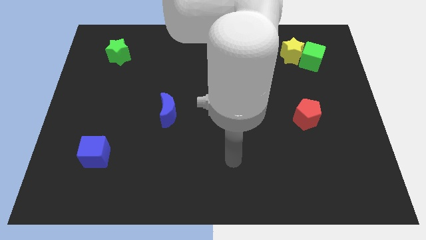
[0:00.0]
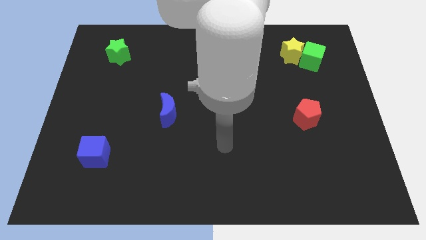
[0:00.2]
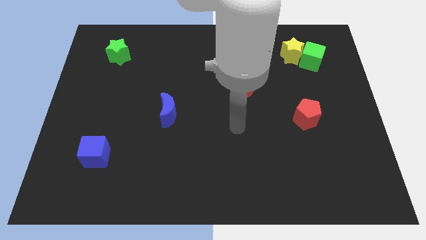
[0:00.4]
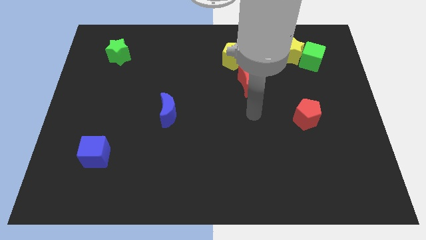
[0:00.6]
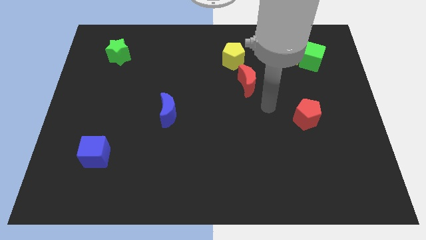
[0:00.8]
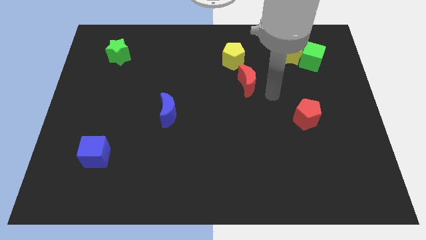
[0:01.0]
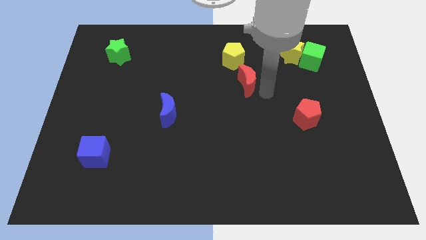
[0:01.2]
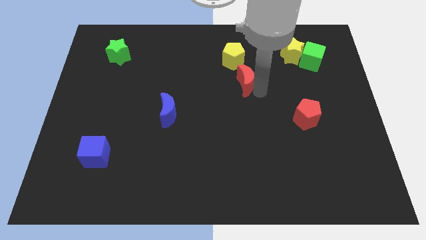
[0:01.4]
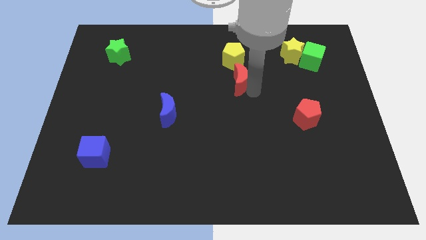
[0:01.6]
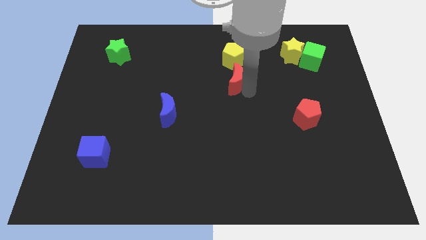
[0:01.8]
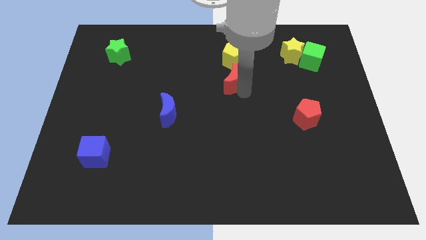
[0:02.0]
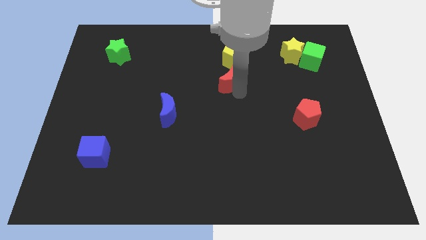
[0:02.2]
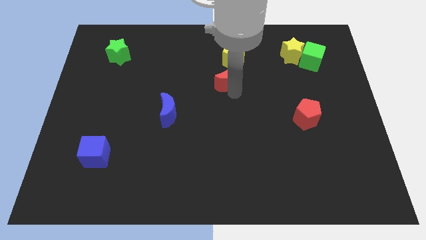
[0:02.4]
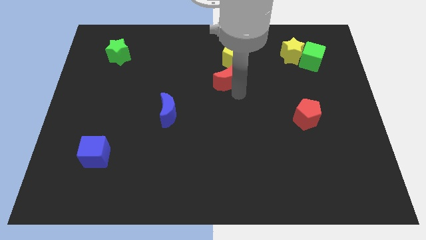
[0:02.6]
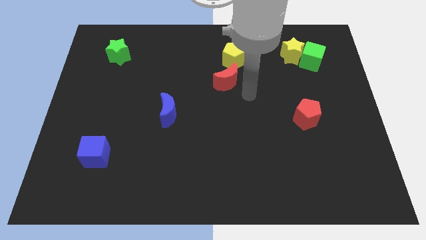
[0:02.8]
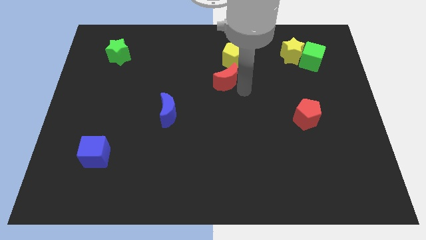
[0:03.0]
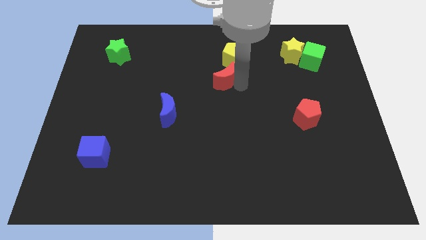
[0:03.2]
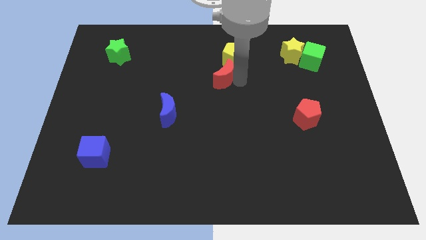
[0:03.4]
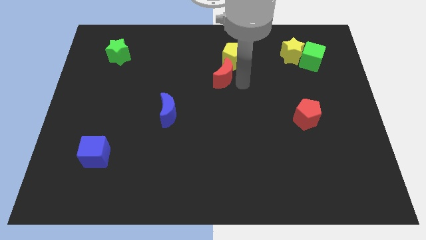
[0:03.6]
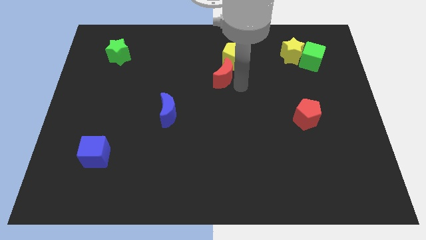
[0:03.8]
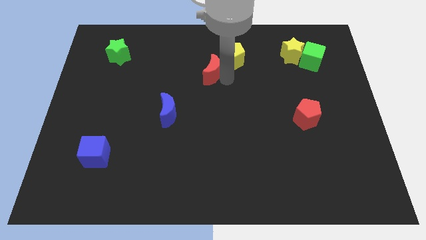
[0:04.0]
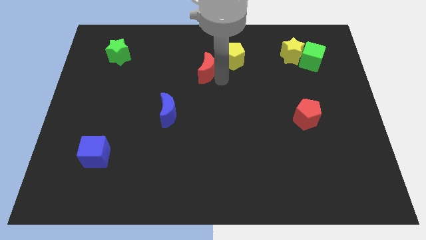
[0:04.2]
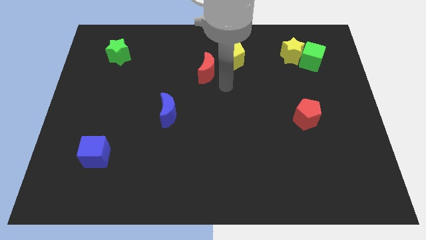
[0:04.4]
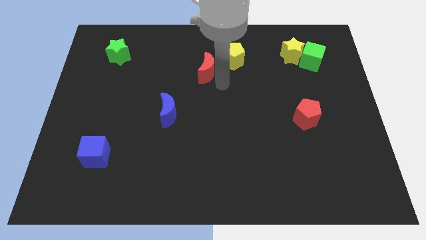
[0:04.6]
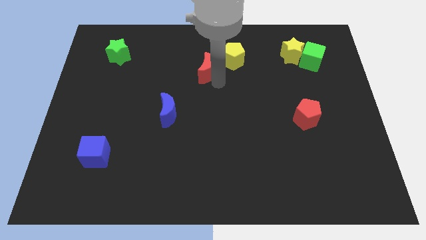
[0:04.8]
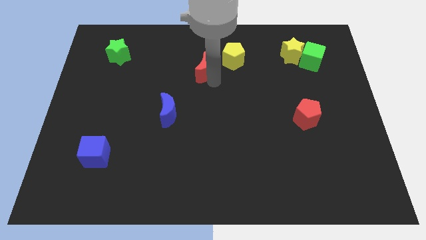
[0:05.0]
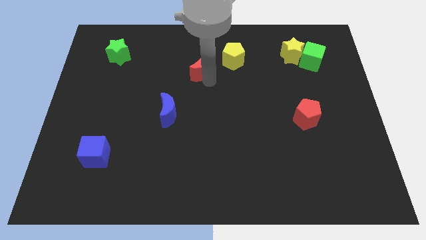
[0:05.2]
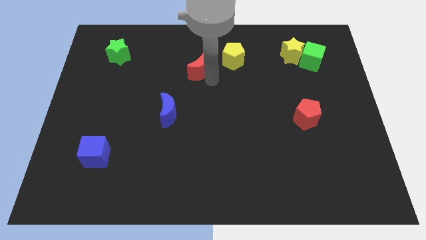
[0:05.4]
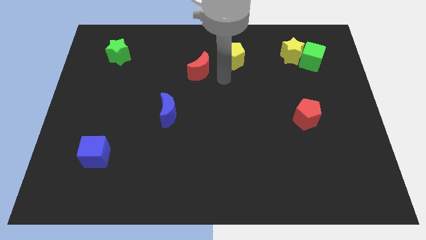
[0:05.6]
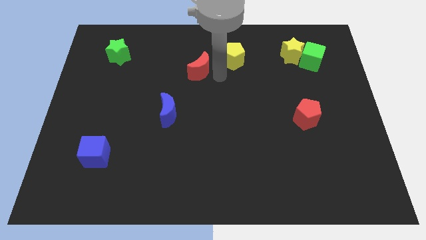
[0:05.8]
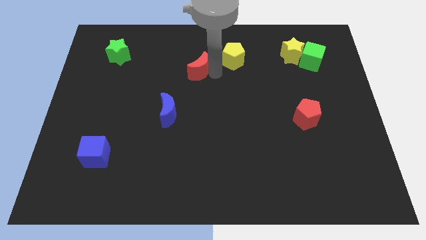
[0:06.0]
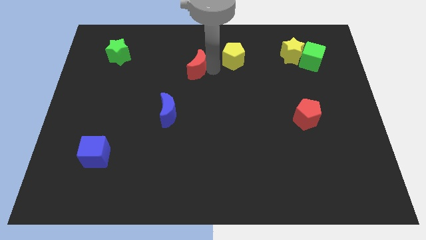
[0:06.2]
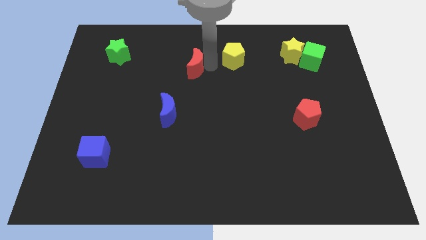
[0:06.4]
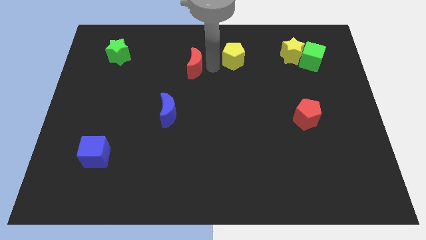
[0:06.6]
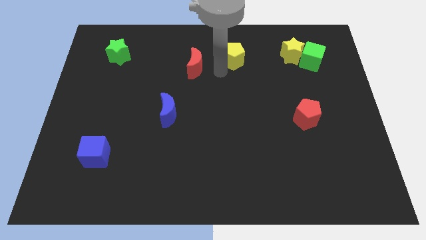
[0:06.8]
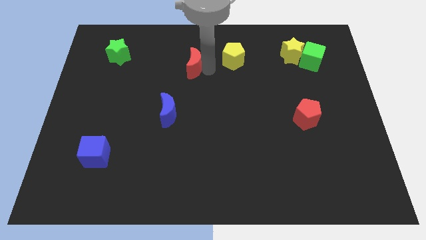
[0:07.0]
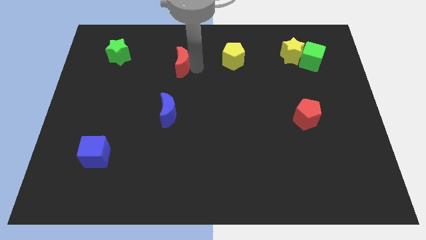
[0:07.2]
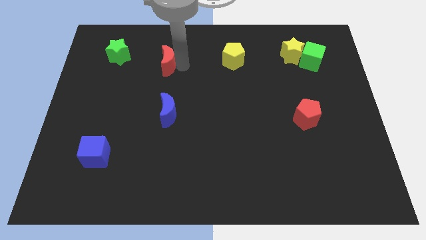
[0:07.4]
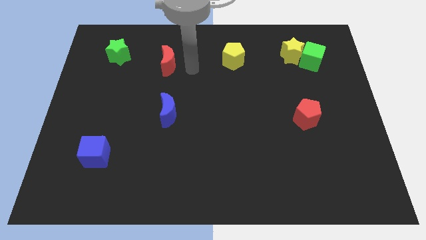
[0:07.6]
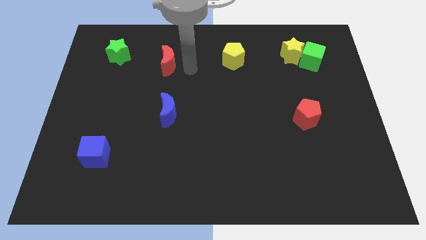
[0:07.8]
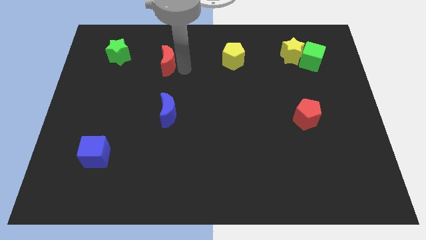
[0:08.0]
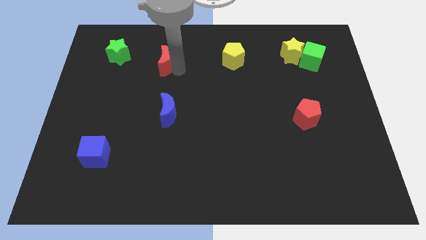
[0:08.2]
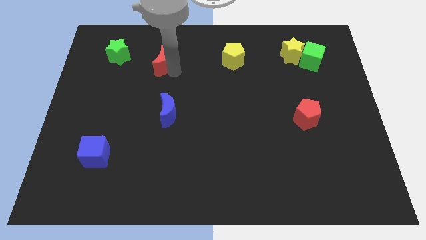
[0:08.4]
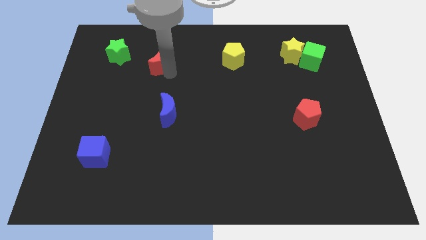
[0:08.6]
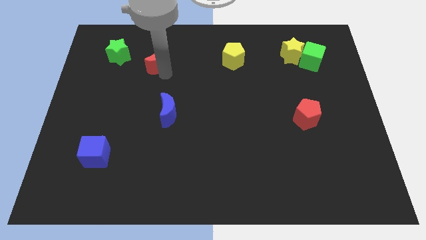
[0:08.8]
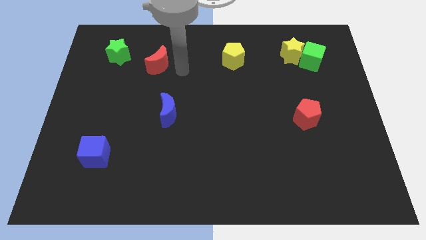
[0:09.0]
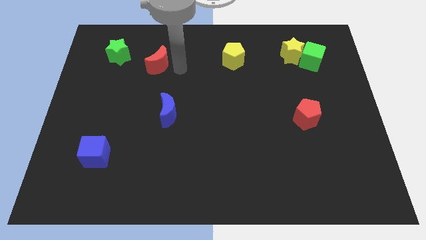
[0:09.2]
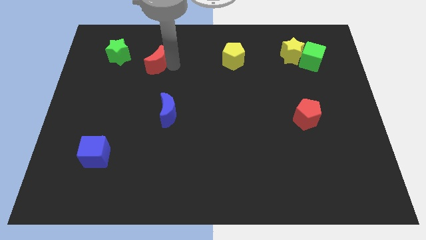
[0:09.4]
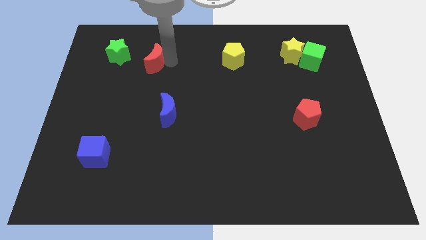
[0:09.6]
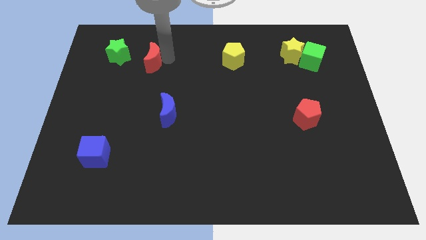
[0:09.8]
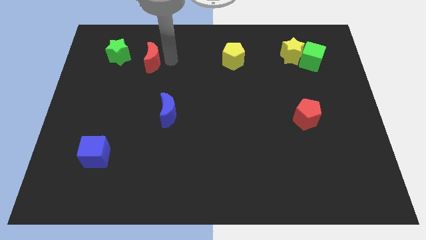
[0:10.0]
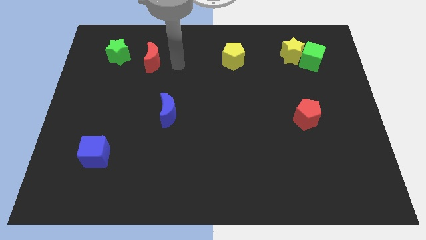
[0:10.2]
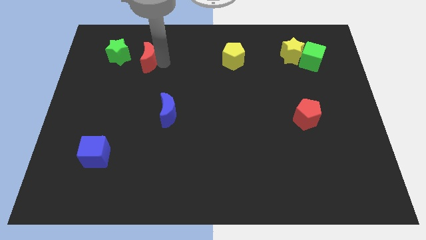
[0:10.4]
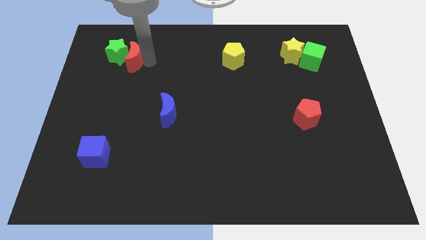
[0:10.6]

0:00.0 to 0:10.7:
slide the red moon to the green star

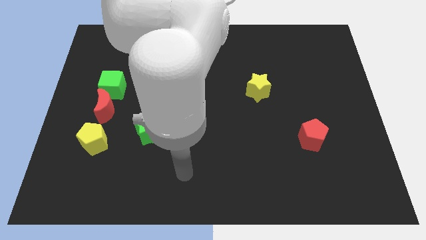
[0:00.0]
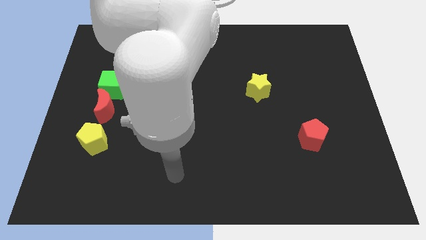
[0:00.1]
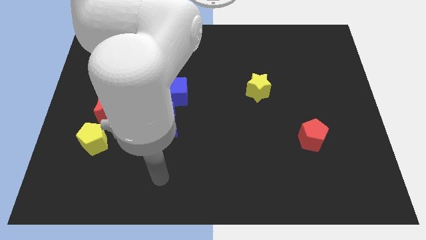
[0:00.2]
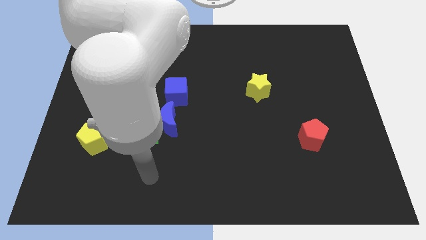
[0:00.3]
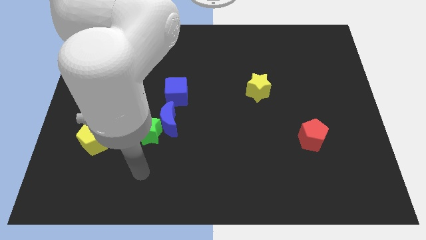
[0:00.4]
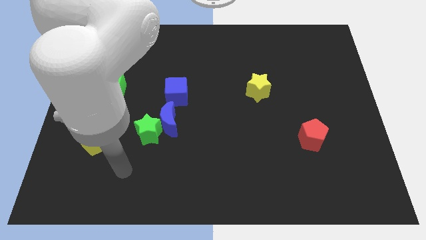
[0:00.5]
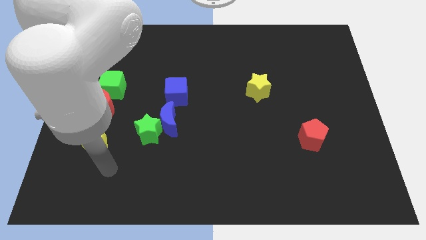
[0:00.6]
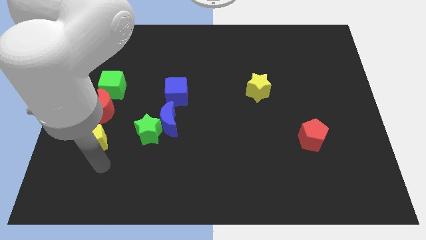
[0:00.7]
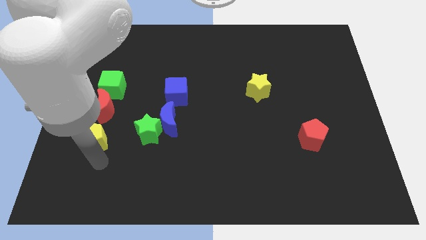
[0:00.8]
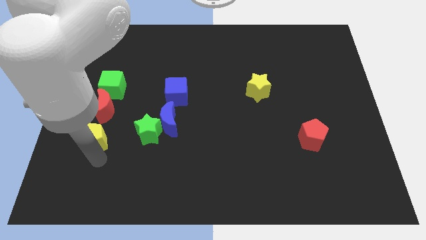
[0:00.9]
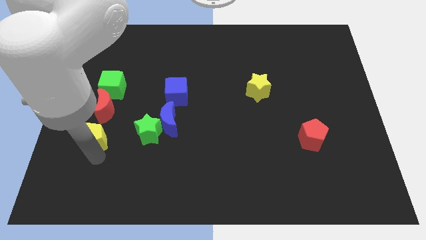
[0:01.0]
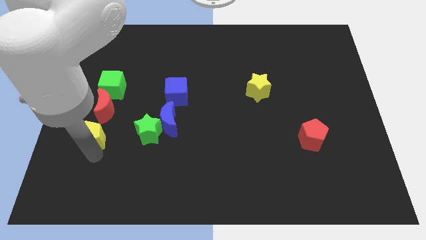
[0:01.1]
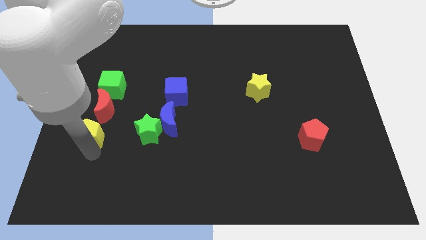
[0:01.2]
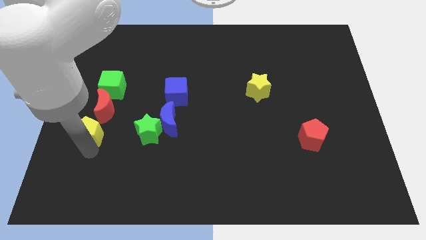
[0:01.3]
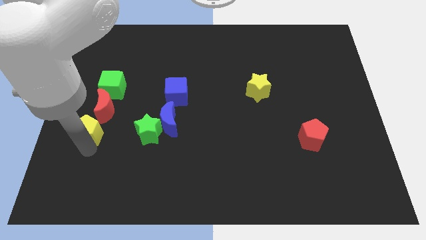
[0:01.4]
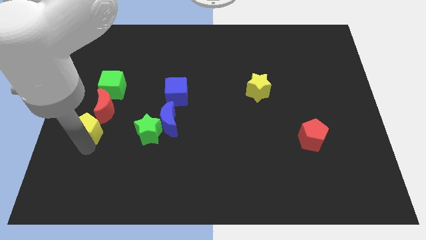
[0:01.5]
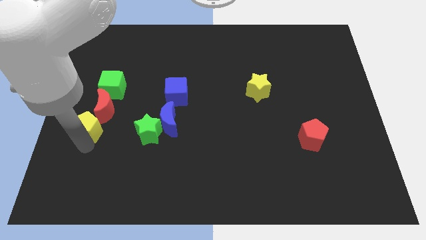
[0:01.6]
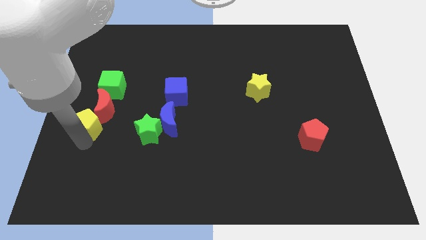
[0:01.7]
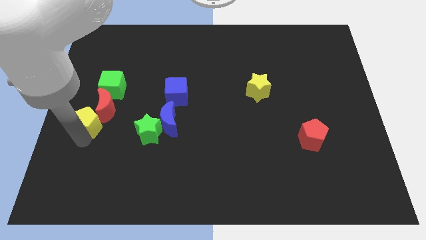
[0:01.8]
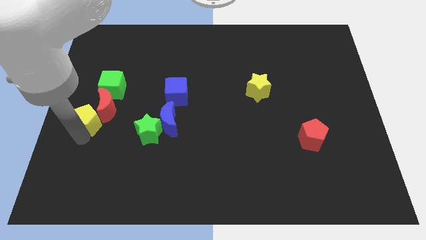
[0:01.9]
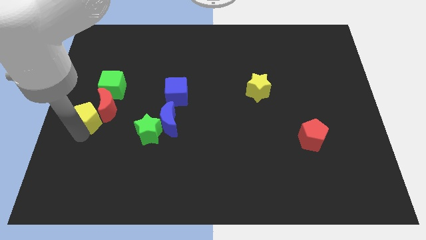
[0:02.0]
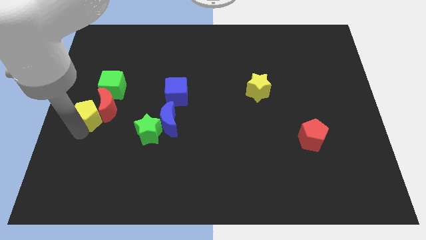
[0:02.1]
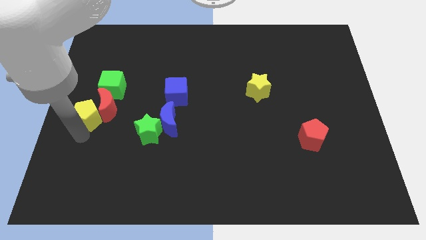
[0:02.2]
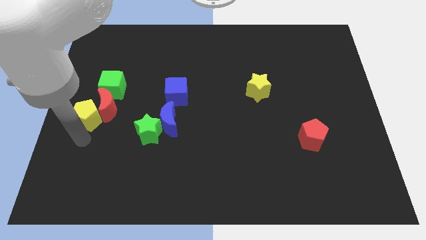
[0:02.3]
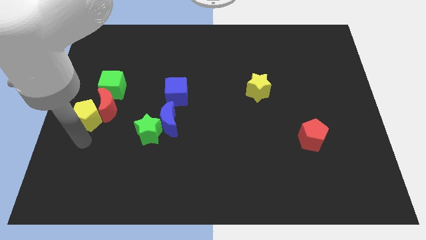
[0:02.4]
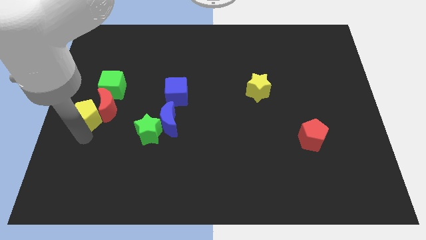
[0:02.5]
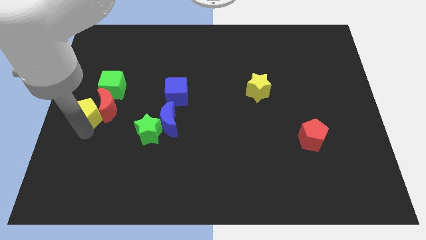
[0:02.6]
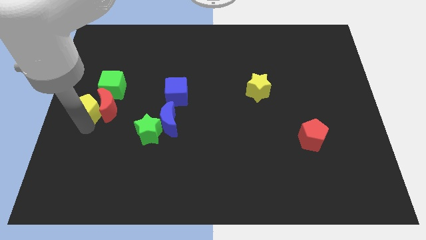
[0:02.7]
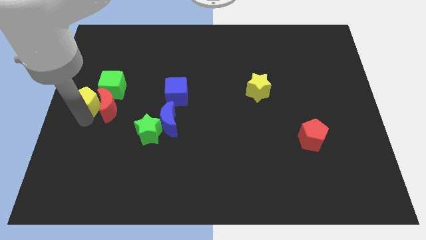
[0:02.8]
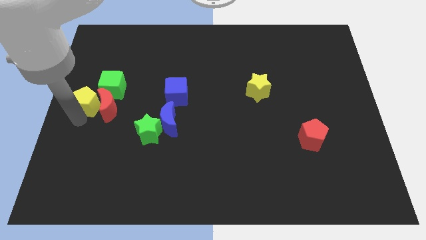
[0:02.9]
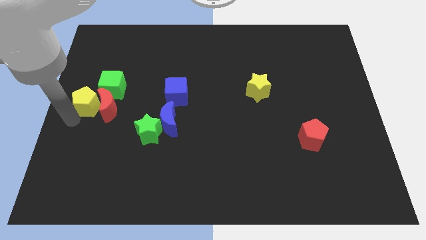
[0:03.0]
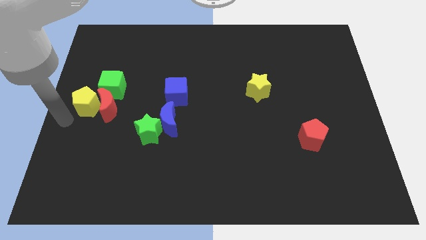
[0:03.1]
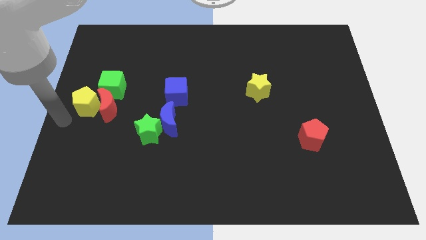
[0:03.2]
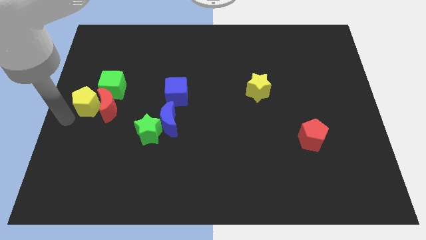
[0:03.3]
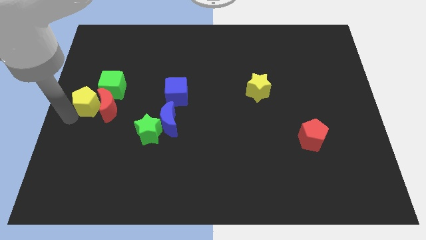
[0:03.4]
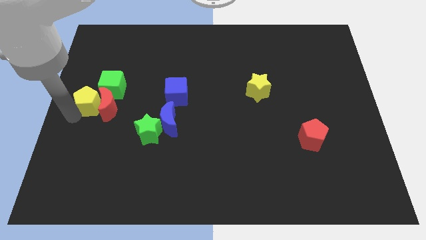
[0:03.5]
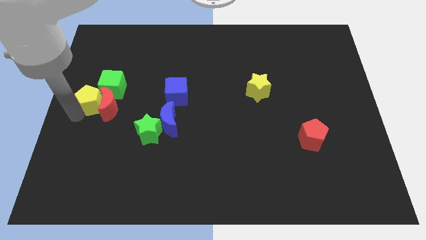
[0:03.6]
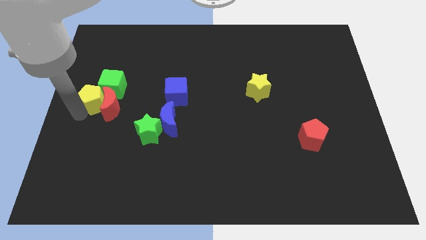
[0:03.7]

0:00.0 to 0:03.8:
move the yellow pentagon to the green cube
